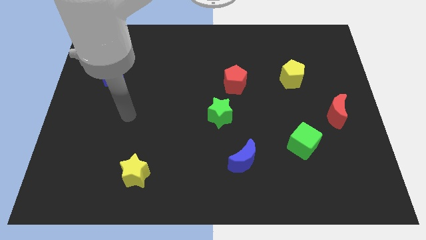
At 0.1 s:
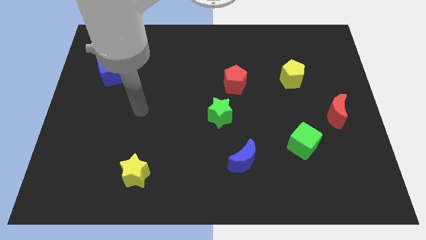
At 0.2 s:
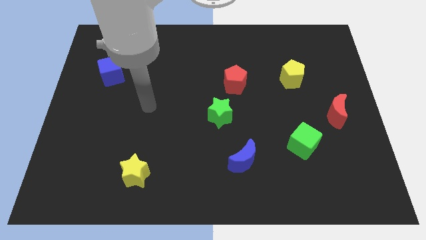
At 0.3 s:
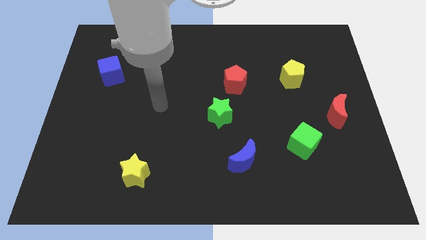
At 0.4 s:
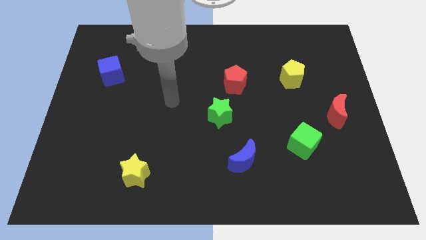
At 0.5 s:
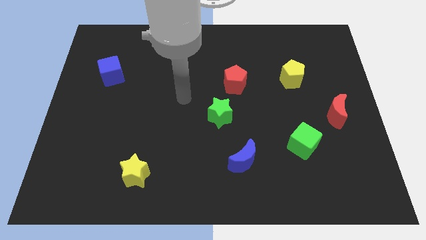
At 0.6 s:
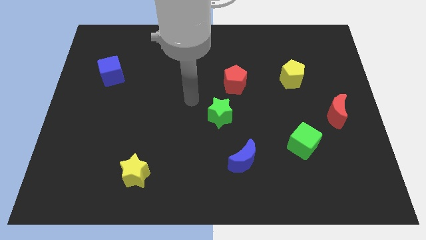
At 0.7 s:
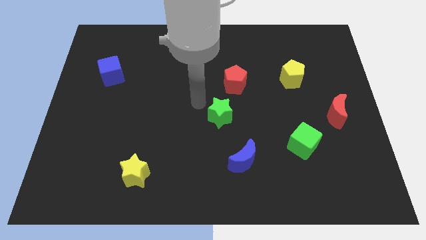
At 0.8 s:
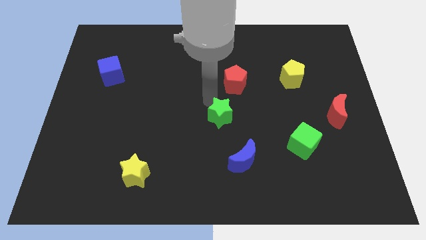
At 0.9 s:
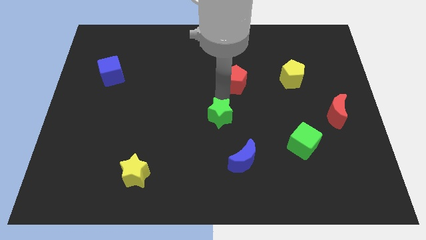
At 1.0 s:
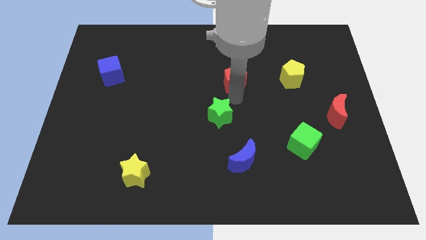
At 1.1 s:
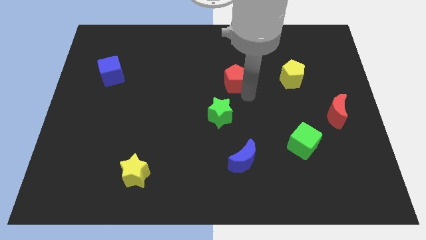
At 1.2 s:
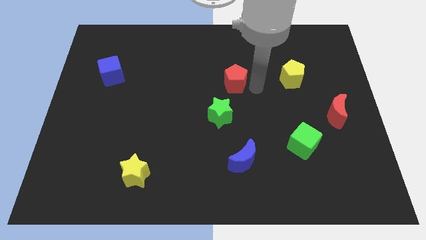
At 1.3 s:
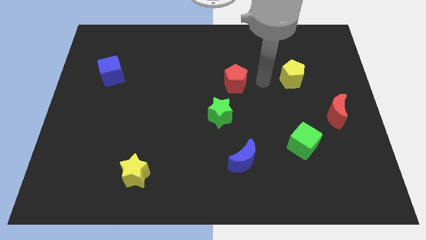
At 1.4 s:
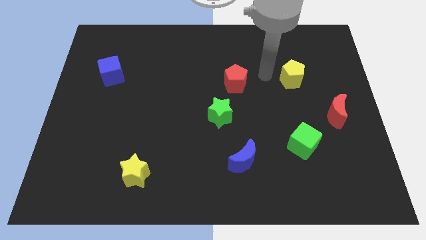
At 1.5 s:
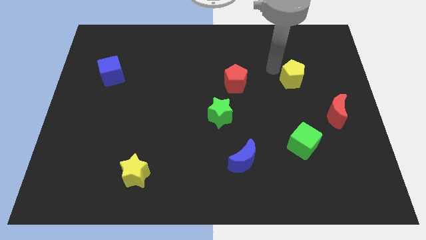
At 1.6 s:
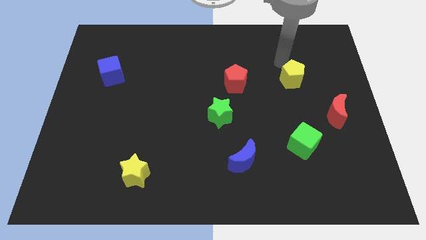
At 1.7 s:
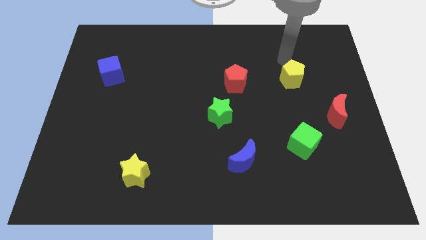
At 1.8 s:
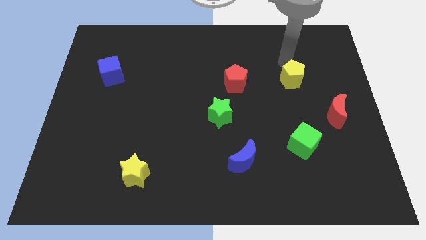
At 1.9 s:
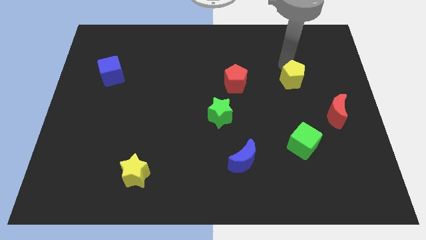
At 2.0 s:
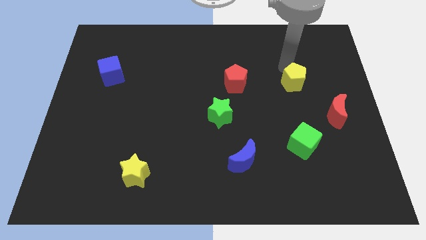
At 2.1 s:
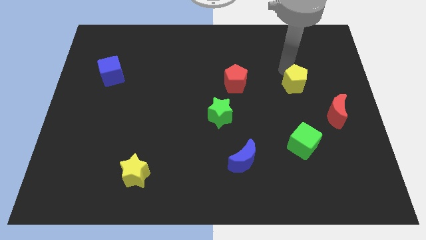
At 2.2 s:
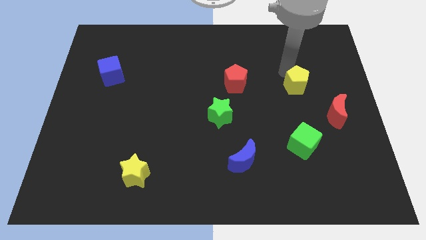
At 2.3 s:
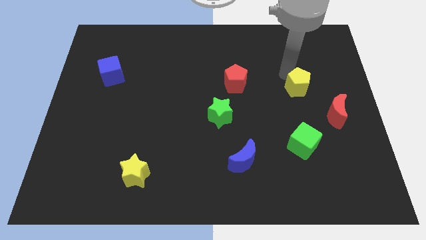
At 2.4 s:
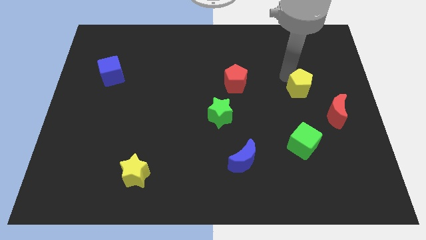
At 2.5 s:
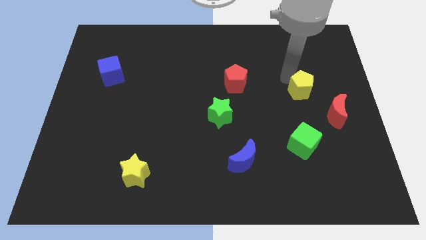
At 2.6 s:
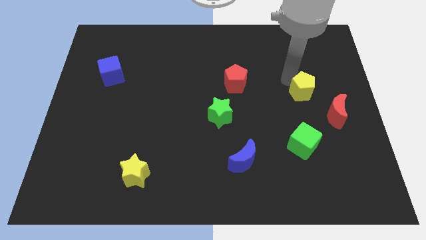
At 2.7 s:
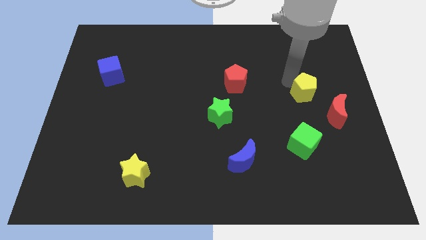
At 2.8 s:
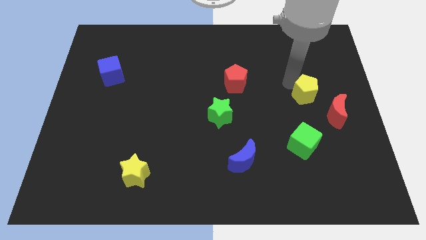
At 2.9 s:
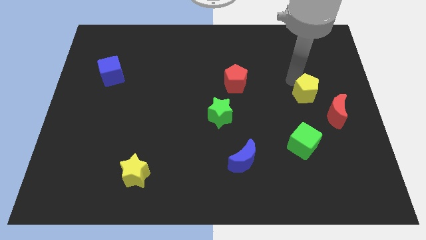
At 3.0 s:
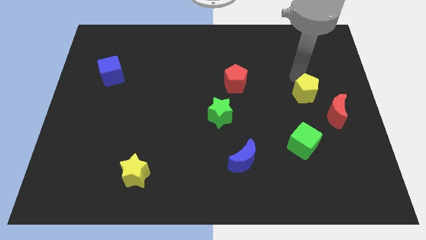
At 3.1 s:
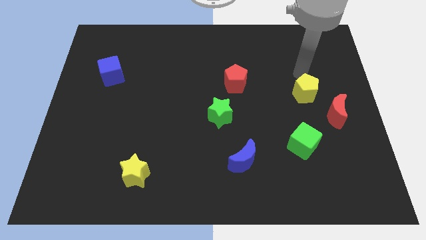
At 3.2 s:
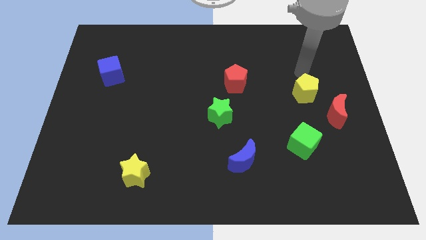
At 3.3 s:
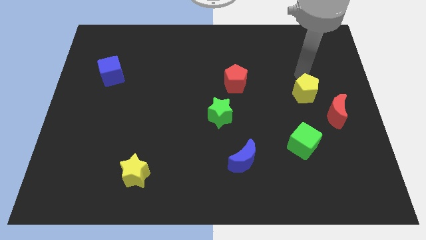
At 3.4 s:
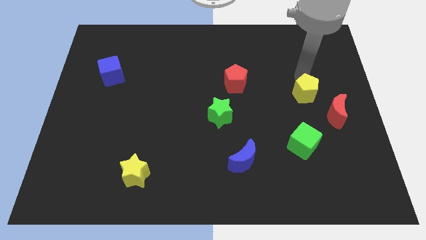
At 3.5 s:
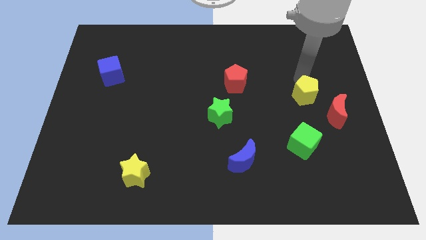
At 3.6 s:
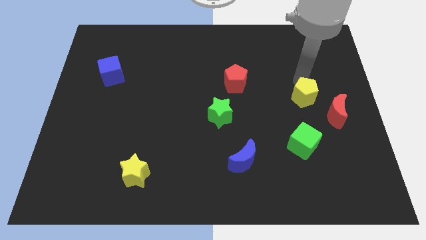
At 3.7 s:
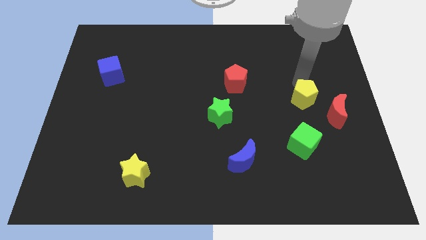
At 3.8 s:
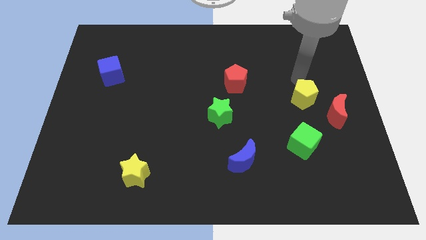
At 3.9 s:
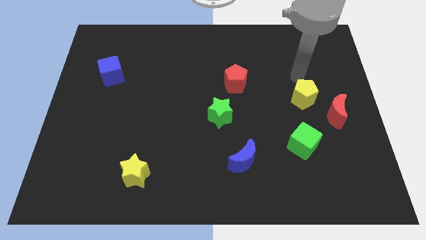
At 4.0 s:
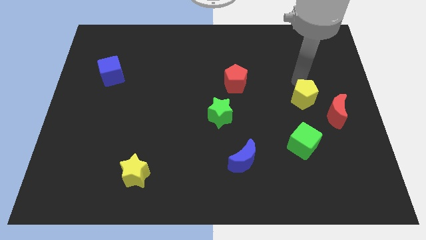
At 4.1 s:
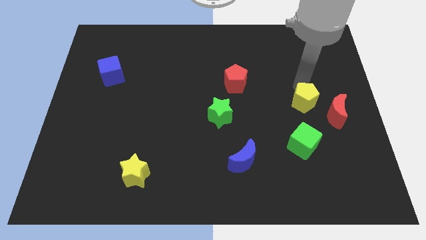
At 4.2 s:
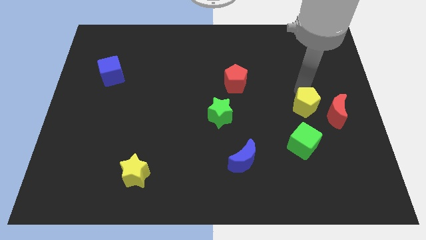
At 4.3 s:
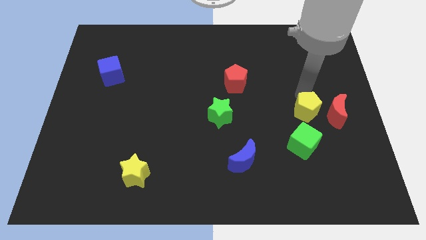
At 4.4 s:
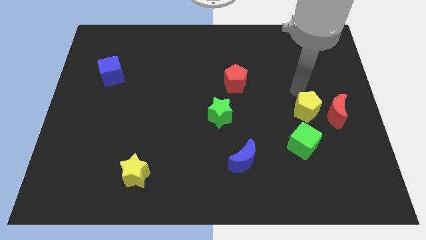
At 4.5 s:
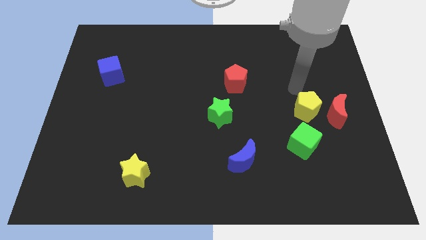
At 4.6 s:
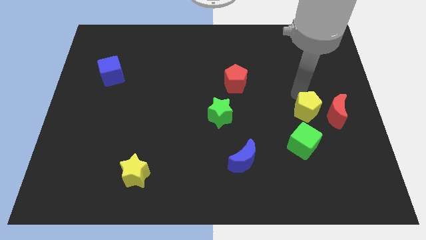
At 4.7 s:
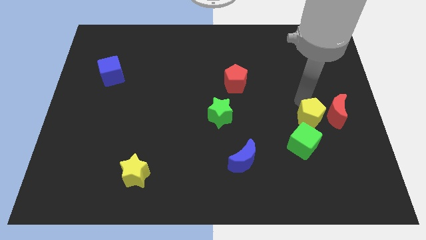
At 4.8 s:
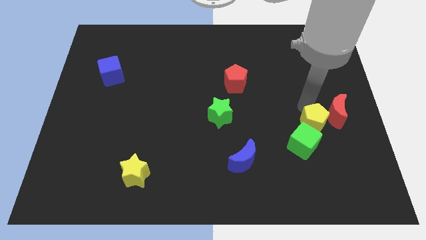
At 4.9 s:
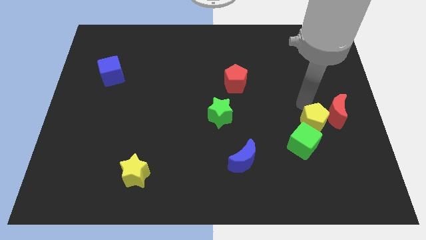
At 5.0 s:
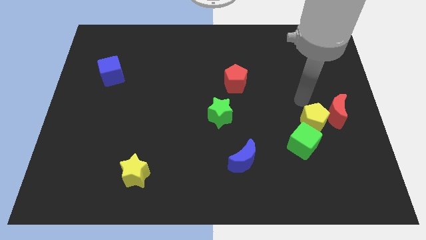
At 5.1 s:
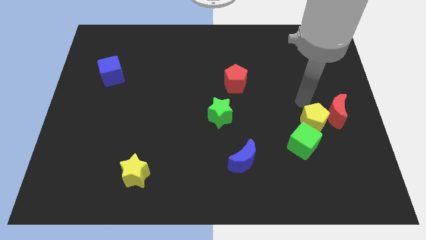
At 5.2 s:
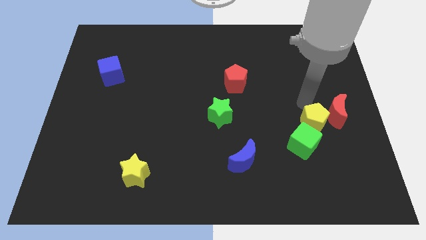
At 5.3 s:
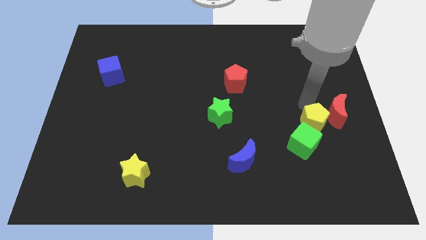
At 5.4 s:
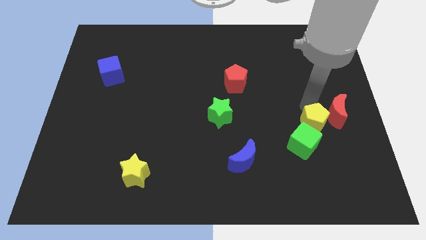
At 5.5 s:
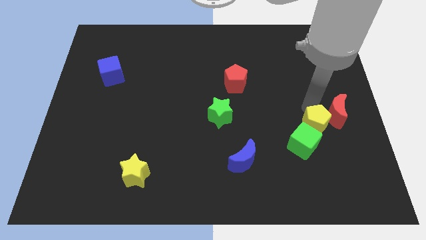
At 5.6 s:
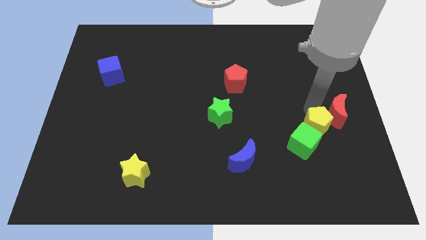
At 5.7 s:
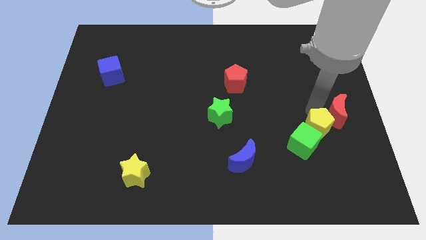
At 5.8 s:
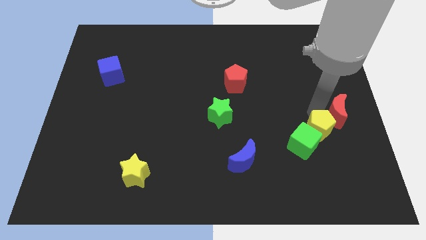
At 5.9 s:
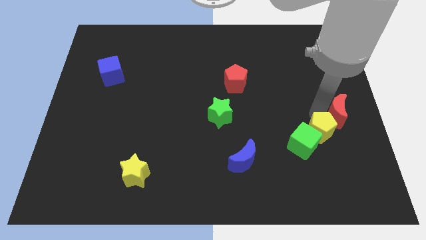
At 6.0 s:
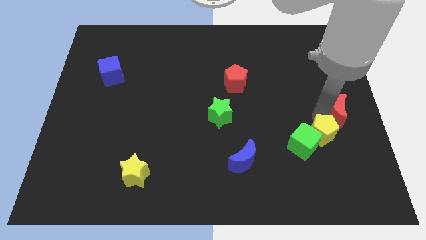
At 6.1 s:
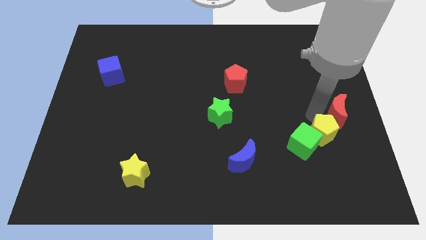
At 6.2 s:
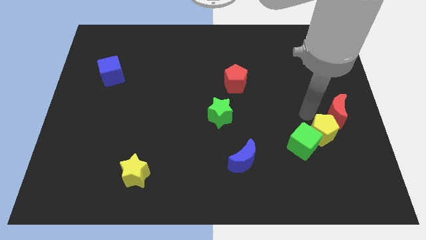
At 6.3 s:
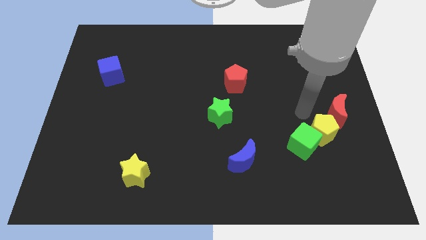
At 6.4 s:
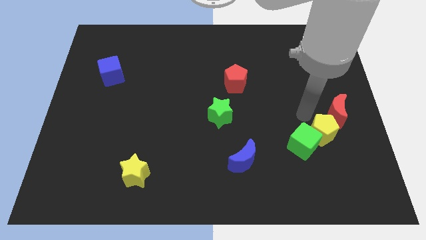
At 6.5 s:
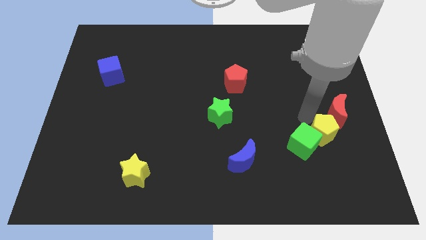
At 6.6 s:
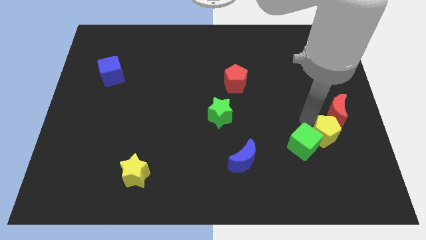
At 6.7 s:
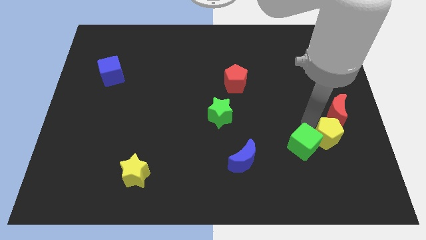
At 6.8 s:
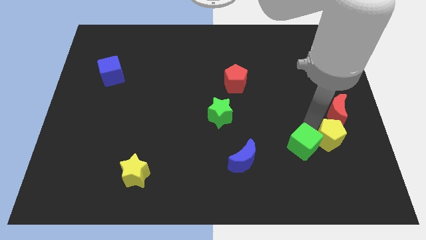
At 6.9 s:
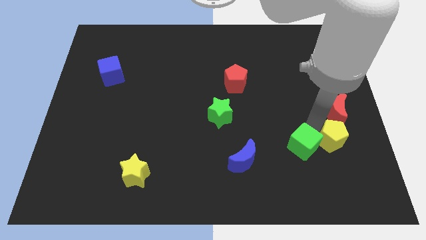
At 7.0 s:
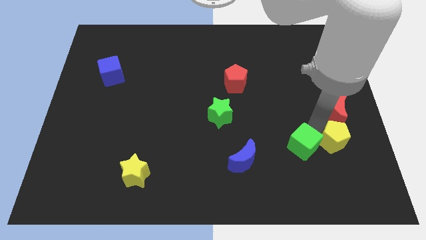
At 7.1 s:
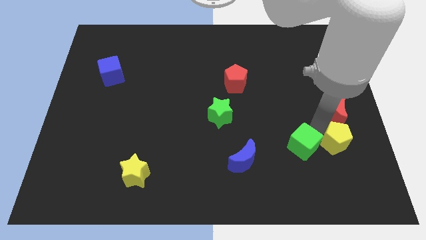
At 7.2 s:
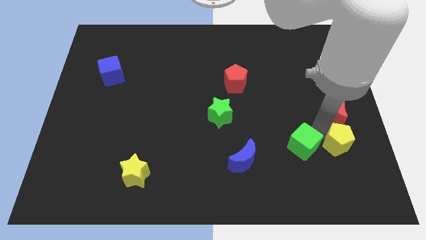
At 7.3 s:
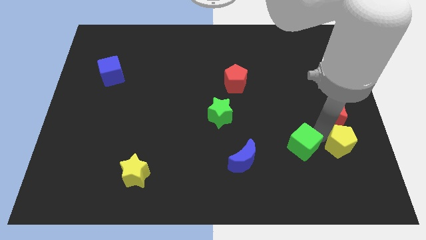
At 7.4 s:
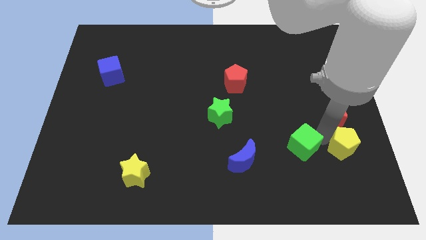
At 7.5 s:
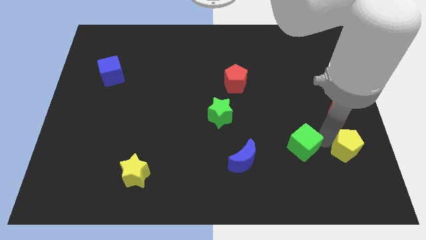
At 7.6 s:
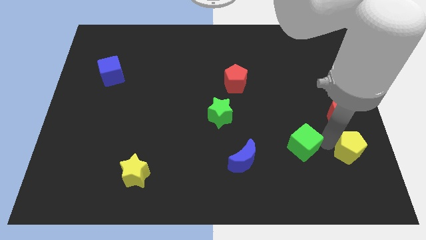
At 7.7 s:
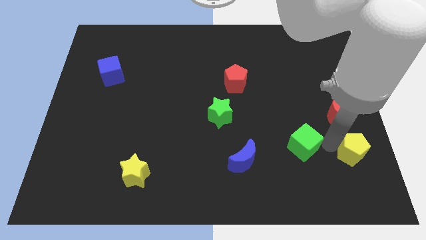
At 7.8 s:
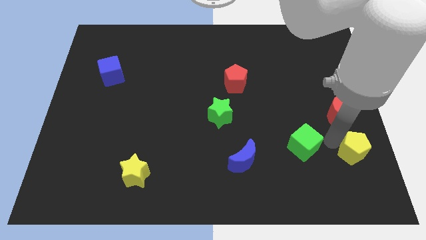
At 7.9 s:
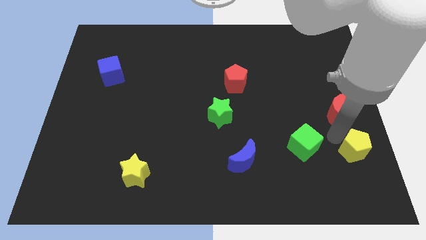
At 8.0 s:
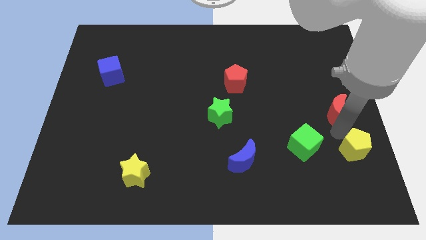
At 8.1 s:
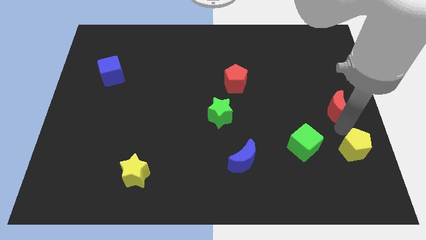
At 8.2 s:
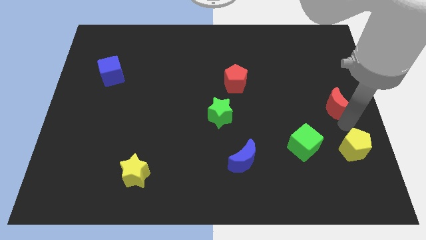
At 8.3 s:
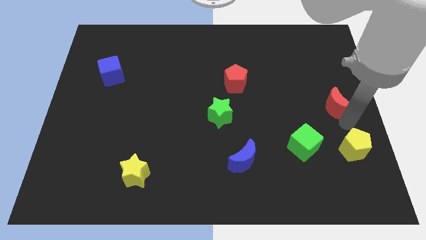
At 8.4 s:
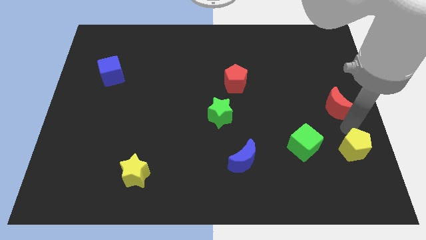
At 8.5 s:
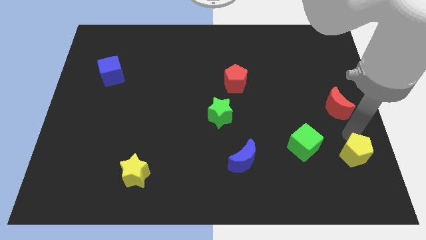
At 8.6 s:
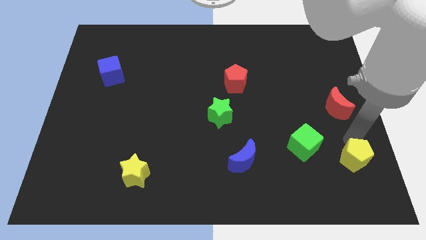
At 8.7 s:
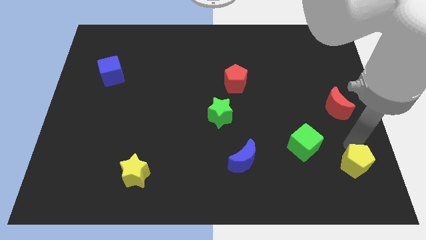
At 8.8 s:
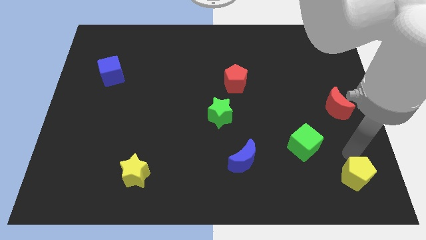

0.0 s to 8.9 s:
push the yellow pentagon to the bottom right of the board
